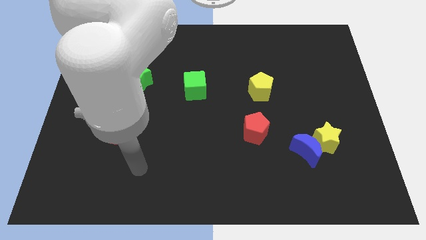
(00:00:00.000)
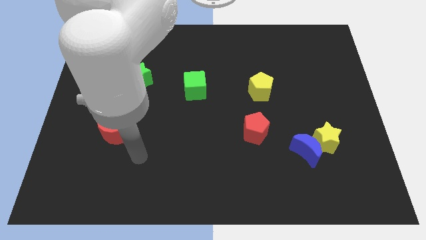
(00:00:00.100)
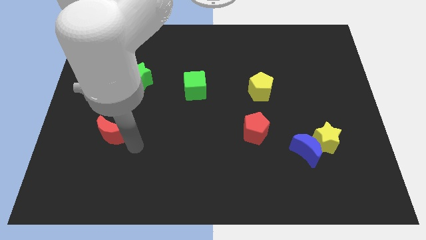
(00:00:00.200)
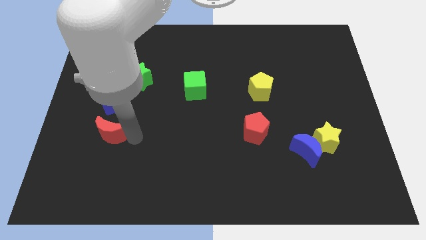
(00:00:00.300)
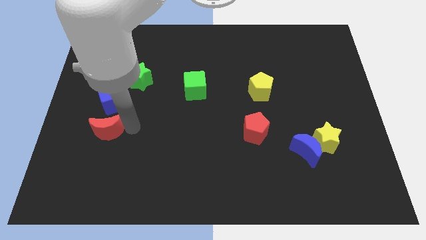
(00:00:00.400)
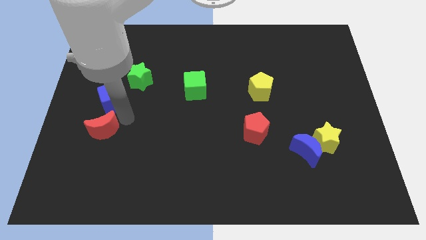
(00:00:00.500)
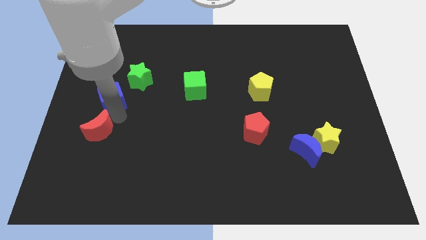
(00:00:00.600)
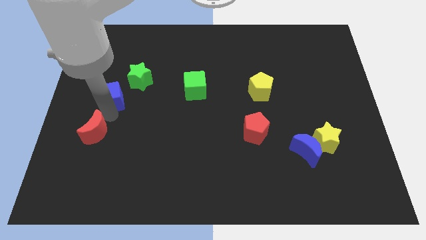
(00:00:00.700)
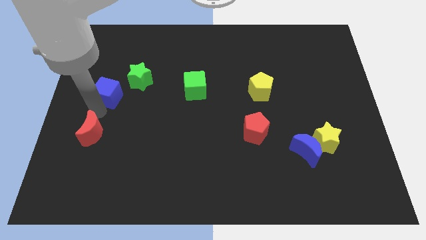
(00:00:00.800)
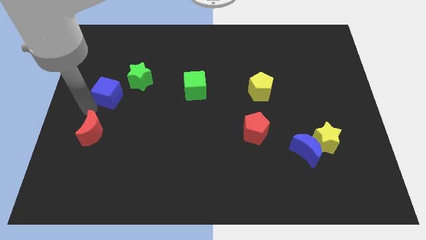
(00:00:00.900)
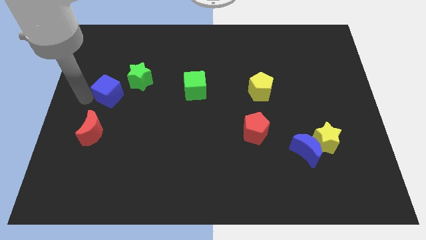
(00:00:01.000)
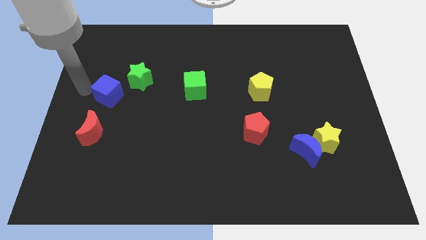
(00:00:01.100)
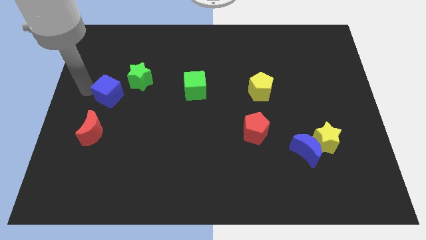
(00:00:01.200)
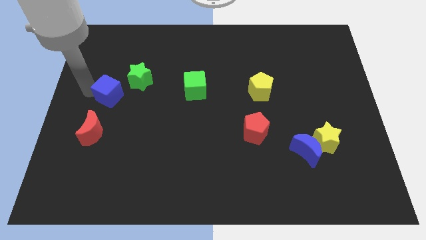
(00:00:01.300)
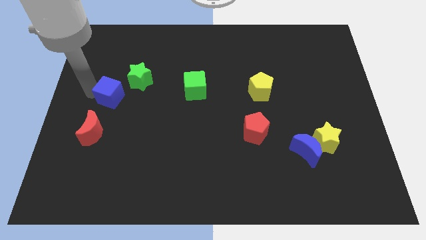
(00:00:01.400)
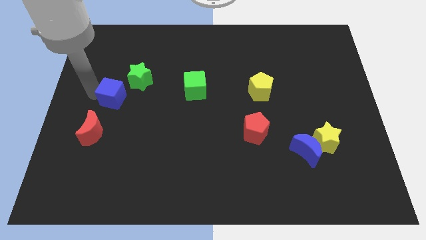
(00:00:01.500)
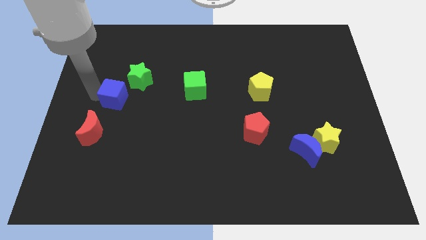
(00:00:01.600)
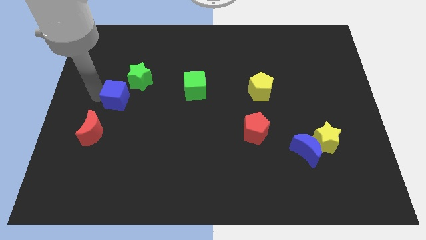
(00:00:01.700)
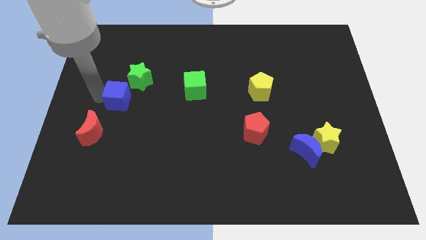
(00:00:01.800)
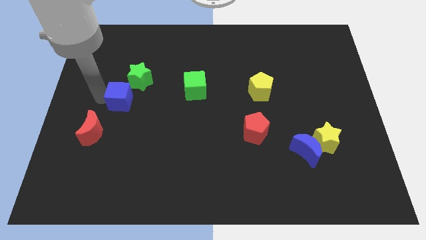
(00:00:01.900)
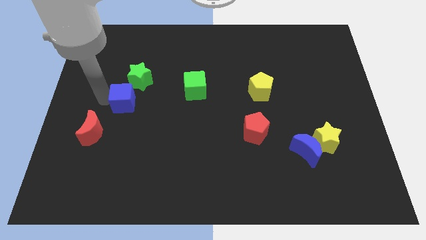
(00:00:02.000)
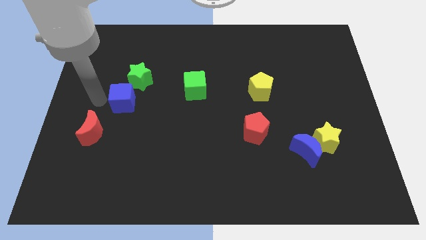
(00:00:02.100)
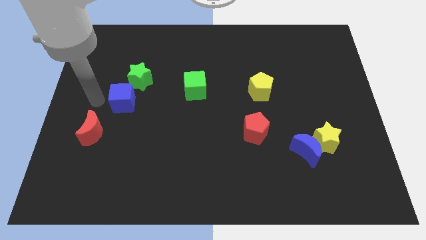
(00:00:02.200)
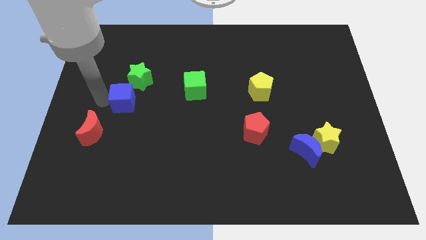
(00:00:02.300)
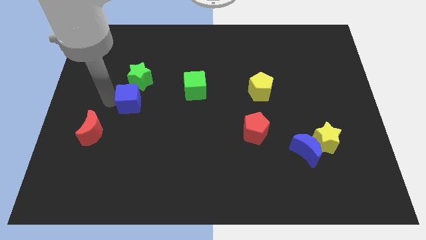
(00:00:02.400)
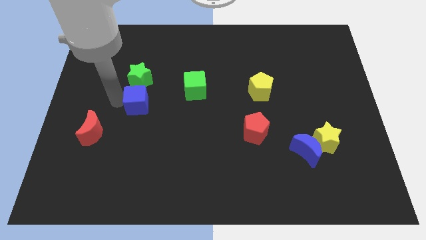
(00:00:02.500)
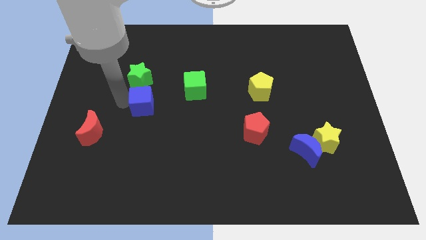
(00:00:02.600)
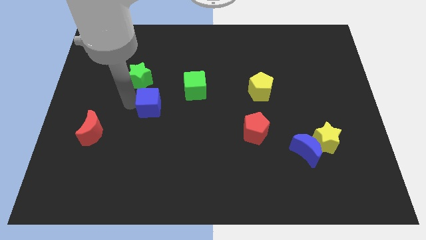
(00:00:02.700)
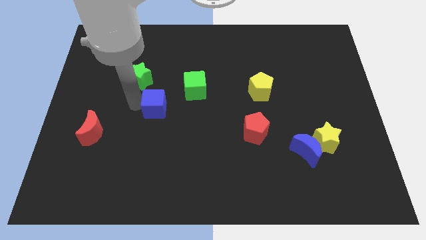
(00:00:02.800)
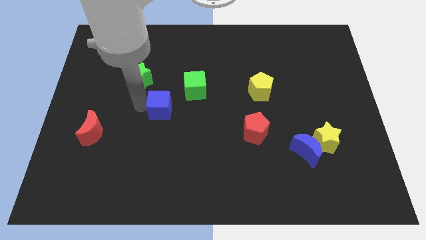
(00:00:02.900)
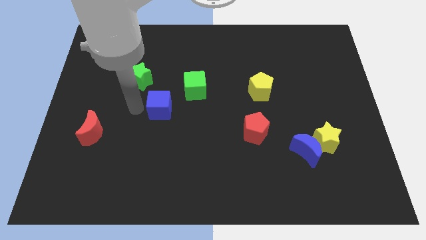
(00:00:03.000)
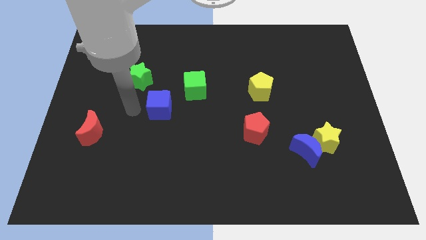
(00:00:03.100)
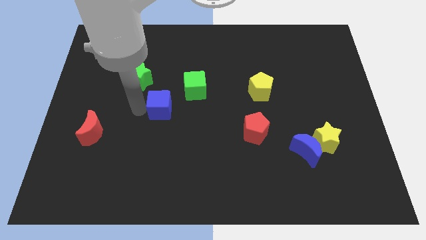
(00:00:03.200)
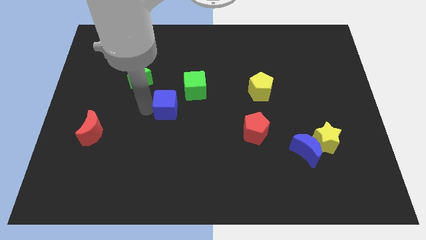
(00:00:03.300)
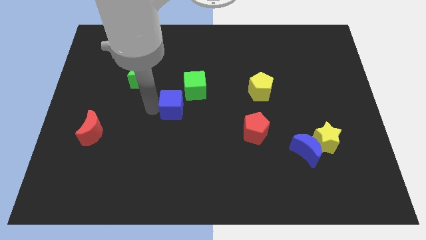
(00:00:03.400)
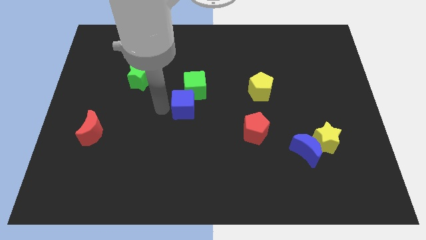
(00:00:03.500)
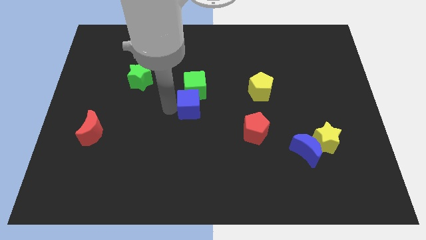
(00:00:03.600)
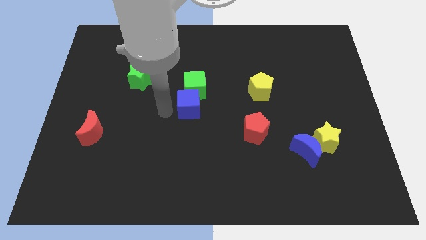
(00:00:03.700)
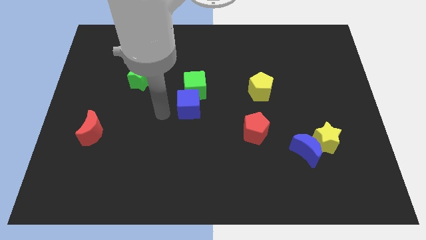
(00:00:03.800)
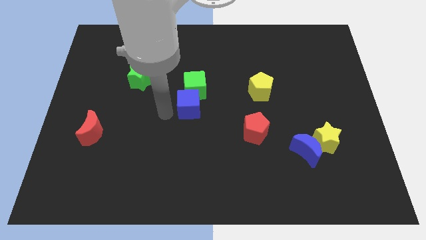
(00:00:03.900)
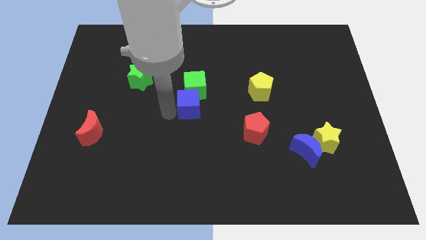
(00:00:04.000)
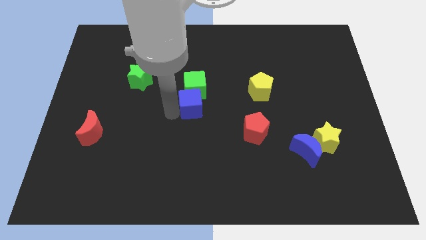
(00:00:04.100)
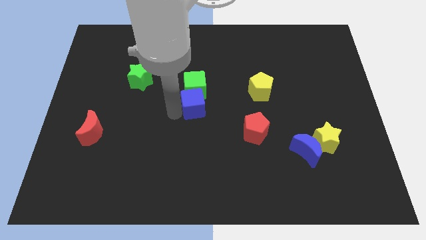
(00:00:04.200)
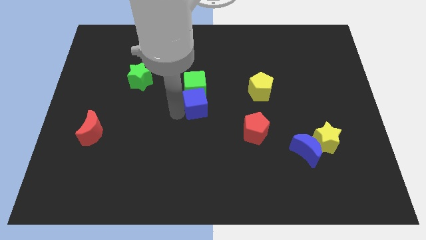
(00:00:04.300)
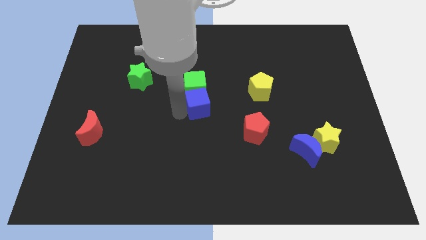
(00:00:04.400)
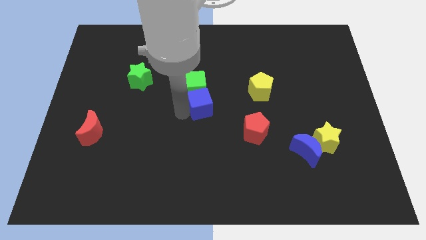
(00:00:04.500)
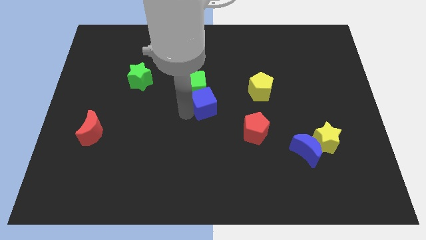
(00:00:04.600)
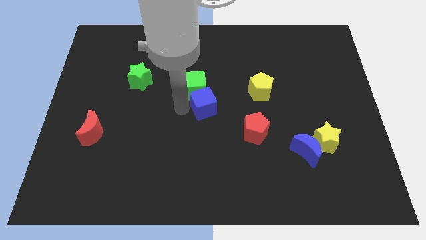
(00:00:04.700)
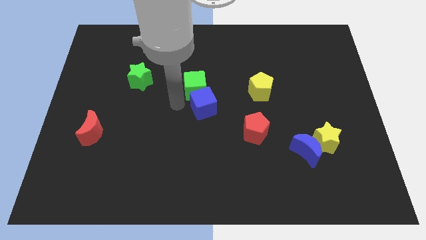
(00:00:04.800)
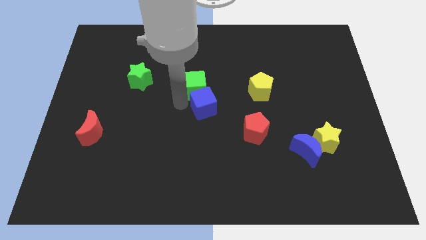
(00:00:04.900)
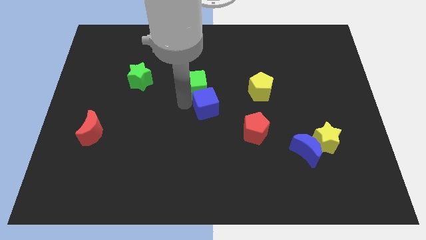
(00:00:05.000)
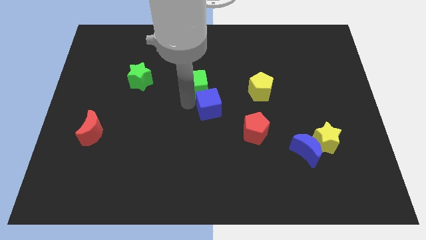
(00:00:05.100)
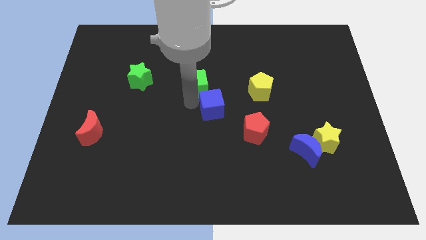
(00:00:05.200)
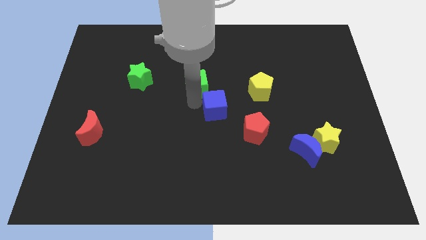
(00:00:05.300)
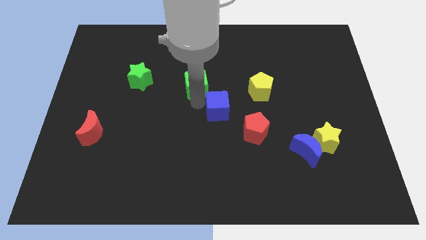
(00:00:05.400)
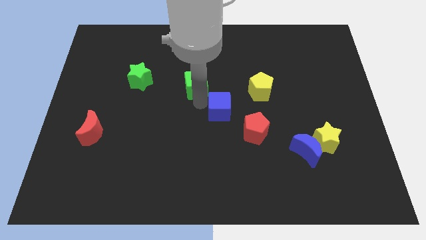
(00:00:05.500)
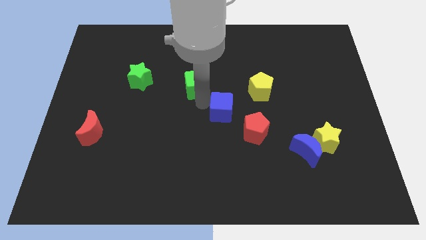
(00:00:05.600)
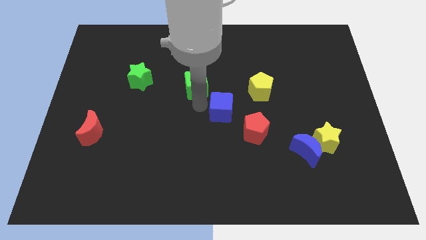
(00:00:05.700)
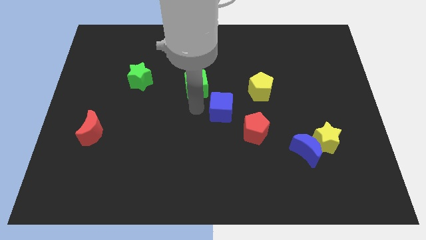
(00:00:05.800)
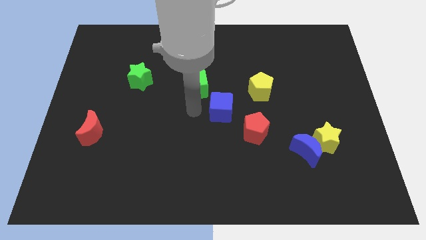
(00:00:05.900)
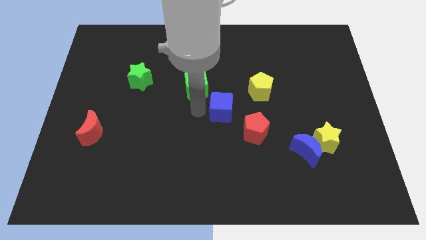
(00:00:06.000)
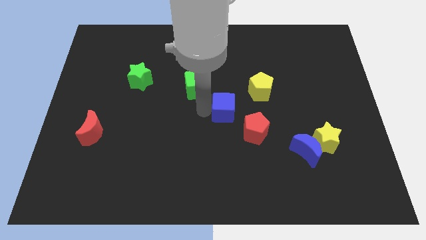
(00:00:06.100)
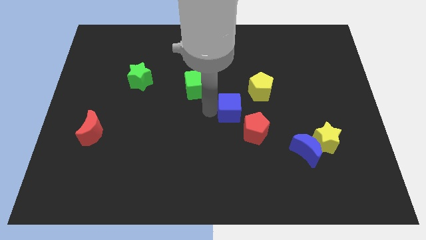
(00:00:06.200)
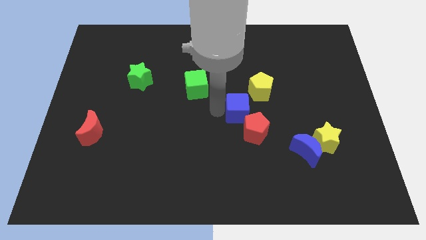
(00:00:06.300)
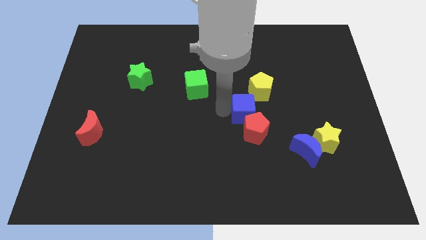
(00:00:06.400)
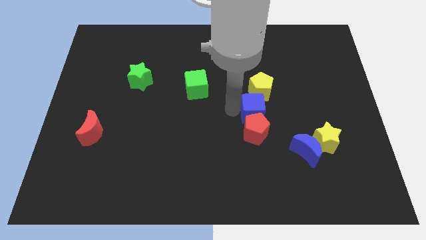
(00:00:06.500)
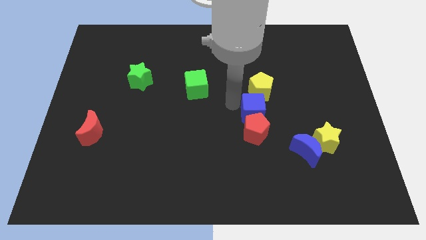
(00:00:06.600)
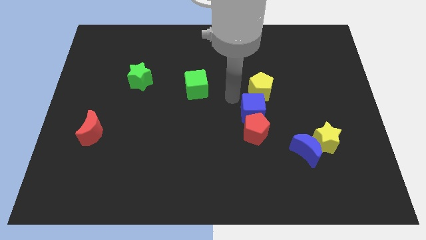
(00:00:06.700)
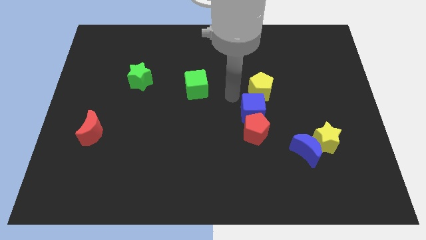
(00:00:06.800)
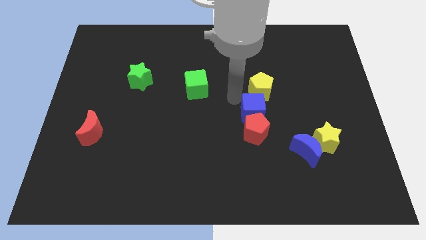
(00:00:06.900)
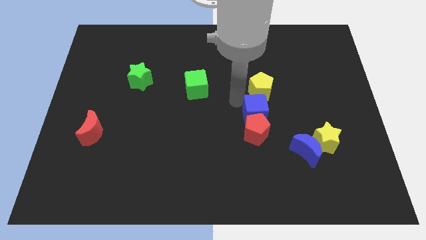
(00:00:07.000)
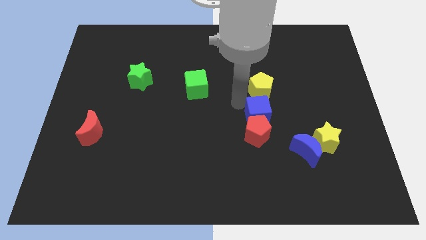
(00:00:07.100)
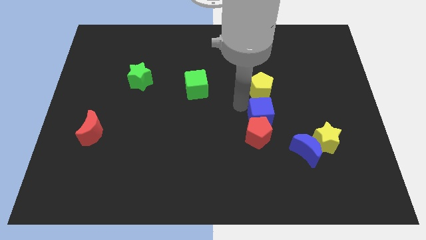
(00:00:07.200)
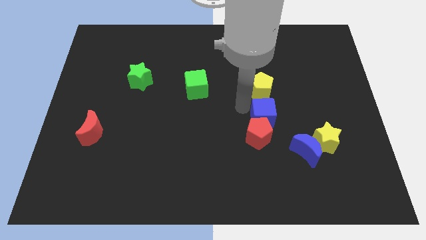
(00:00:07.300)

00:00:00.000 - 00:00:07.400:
move the blue cube to the top left side of the blue moon
